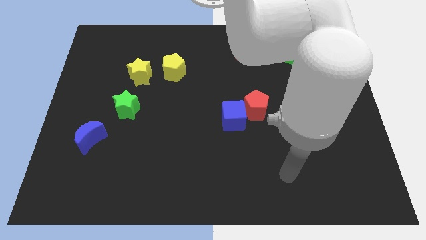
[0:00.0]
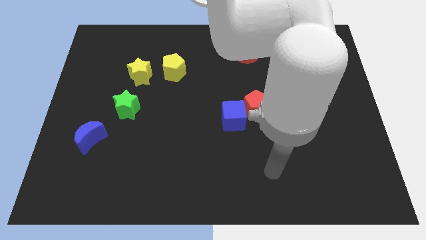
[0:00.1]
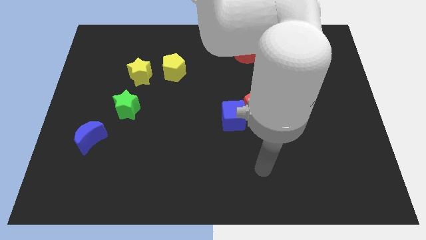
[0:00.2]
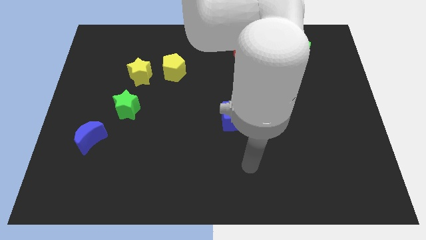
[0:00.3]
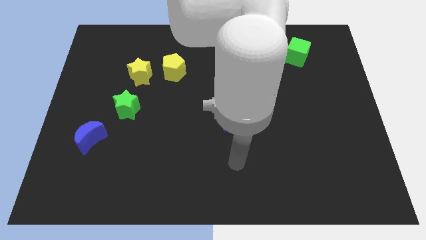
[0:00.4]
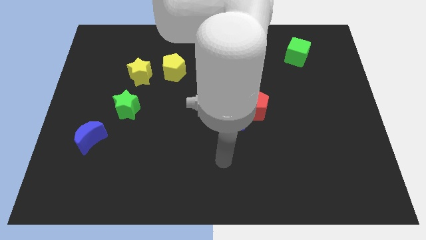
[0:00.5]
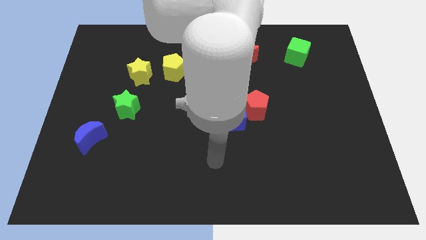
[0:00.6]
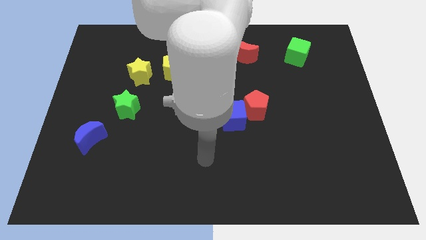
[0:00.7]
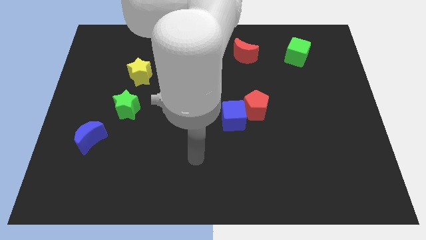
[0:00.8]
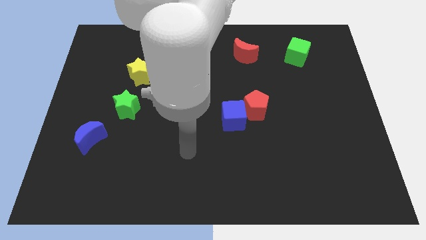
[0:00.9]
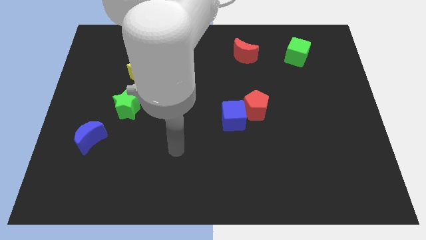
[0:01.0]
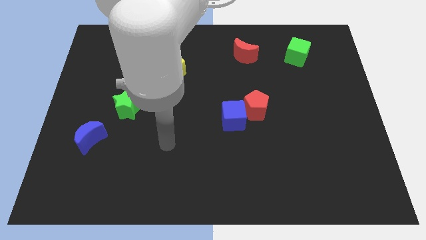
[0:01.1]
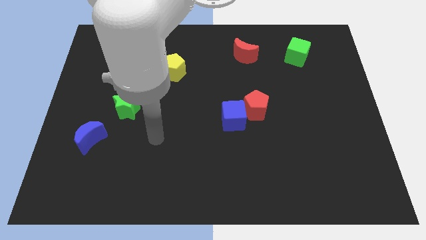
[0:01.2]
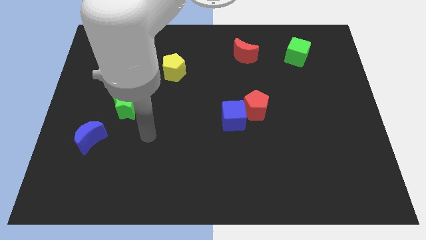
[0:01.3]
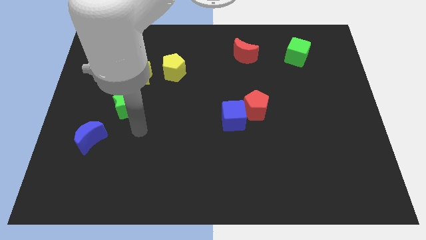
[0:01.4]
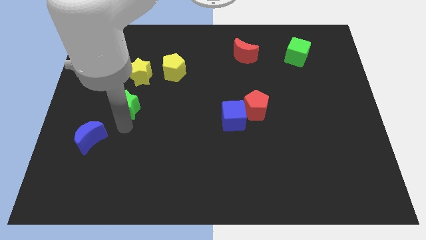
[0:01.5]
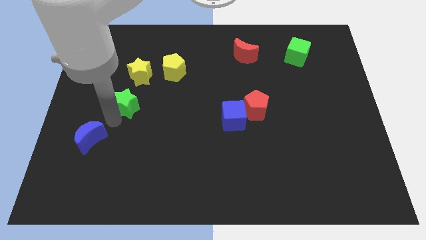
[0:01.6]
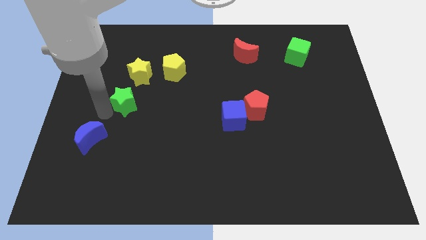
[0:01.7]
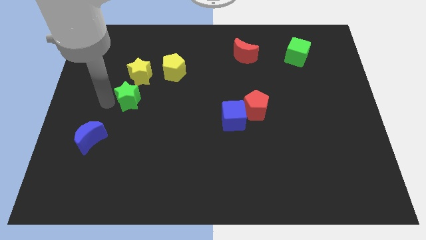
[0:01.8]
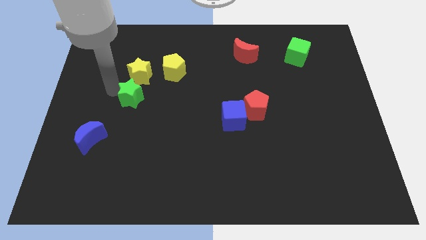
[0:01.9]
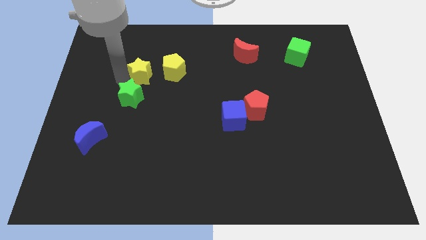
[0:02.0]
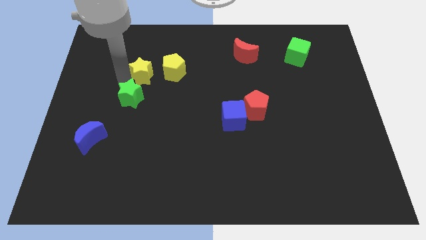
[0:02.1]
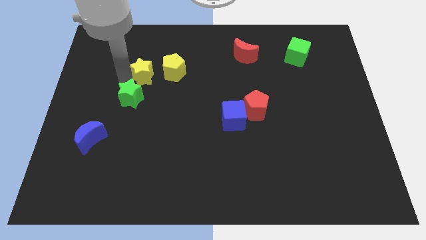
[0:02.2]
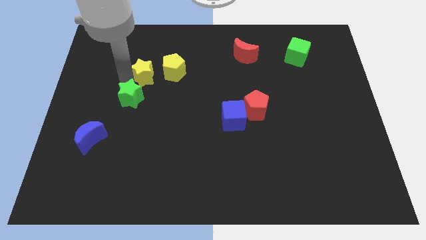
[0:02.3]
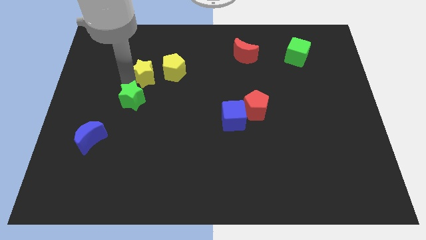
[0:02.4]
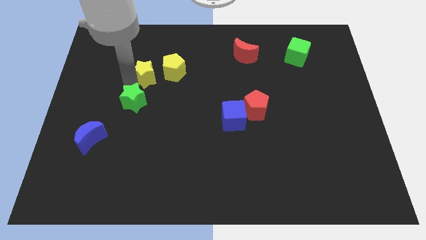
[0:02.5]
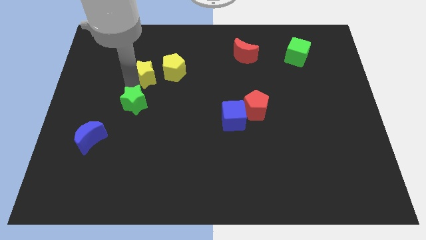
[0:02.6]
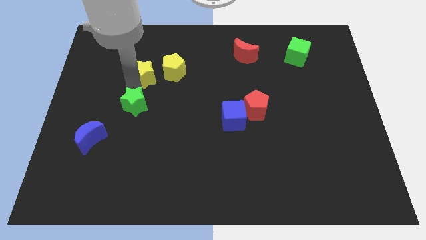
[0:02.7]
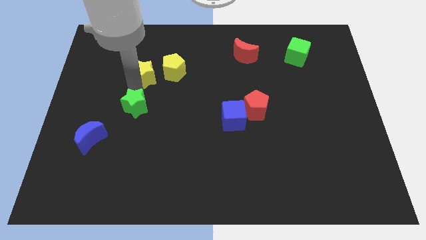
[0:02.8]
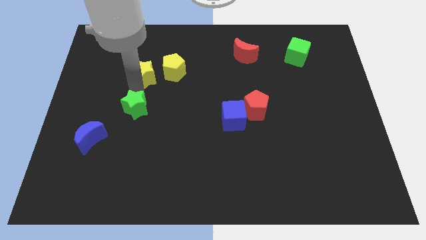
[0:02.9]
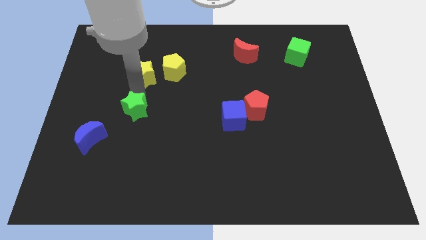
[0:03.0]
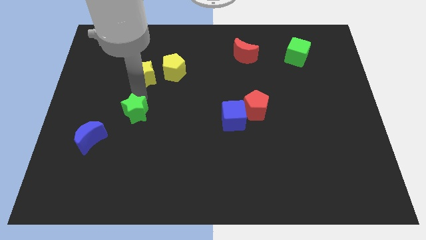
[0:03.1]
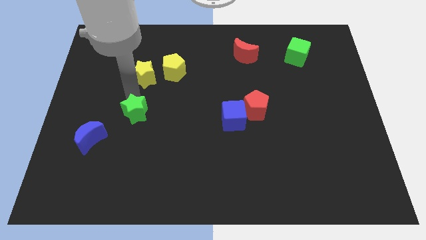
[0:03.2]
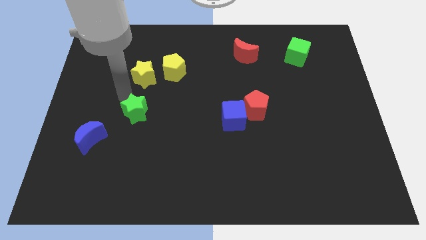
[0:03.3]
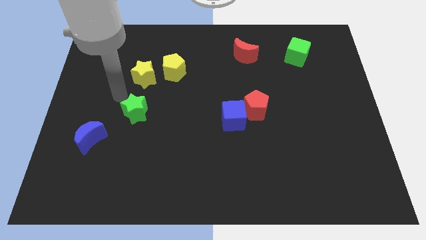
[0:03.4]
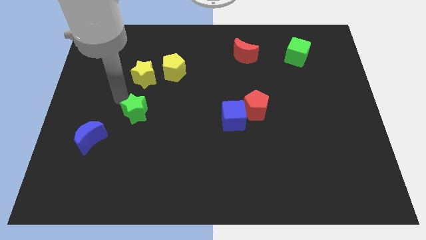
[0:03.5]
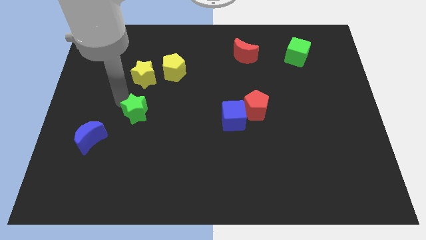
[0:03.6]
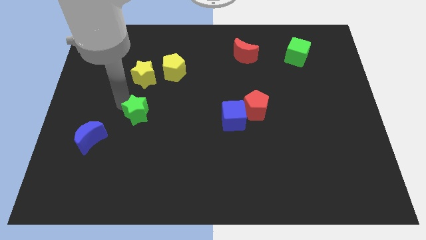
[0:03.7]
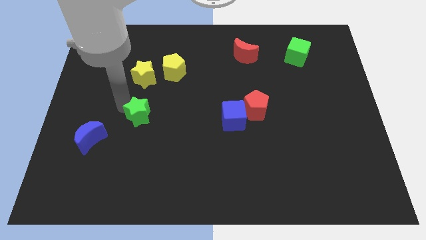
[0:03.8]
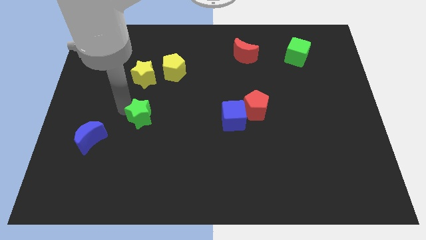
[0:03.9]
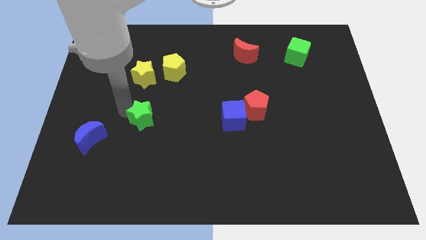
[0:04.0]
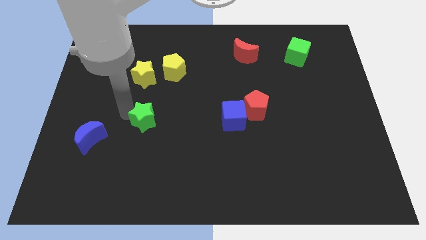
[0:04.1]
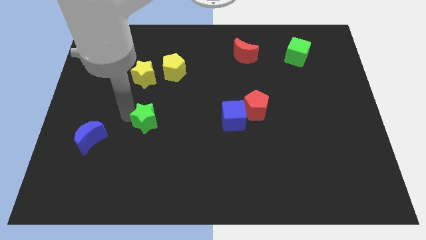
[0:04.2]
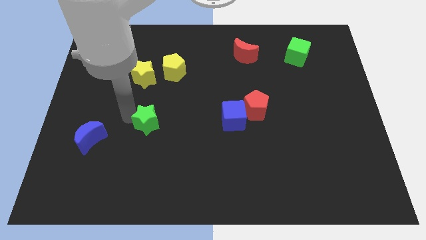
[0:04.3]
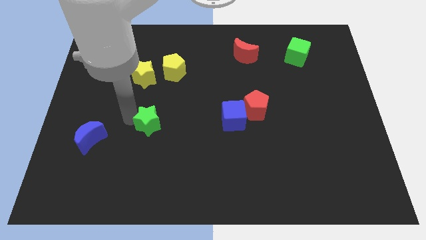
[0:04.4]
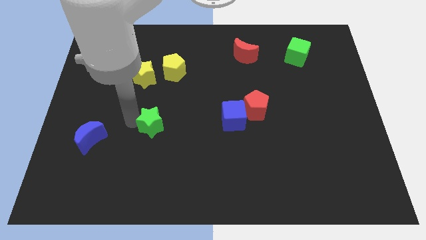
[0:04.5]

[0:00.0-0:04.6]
slightly push the green star down and to the right diagonally

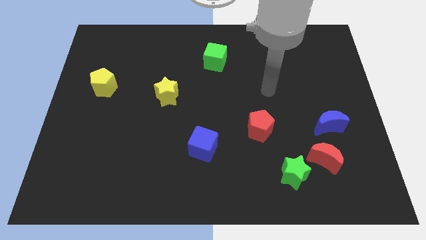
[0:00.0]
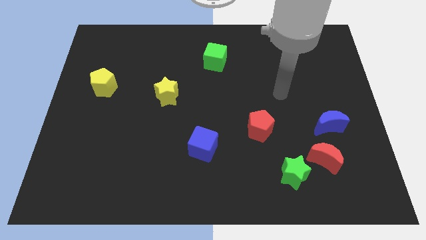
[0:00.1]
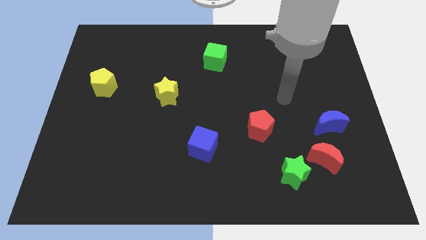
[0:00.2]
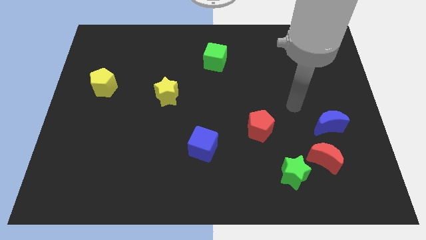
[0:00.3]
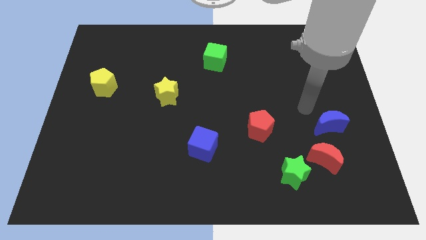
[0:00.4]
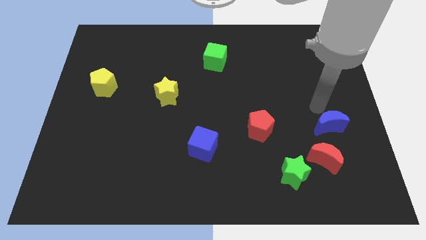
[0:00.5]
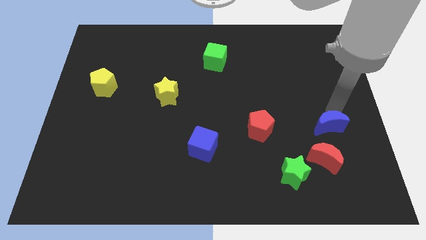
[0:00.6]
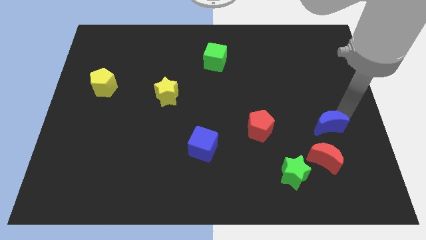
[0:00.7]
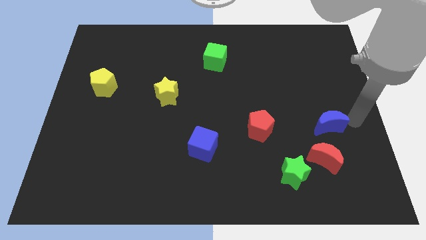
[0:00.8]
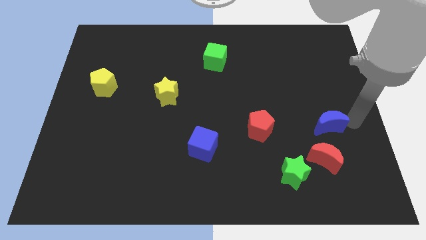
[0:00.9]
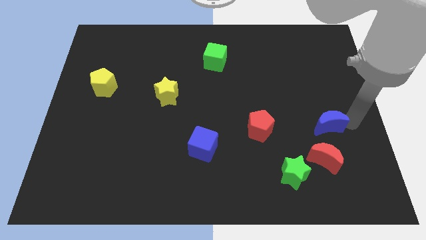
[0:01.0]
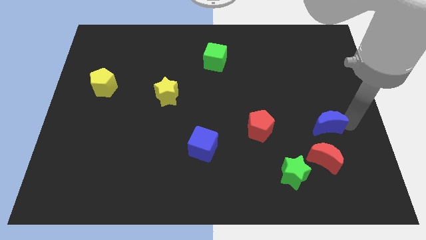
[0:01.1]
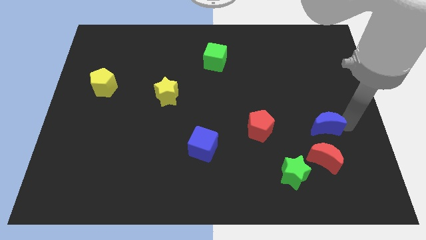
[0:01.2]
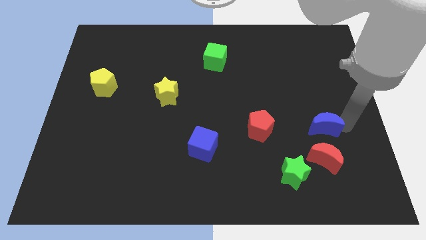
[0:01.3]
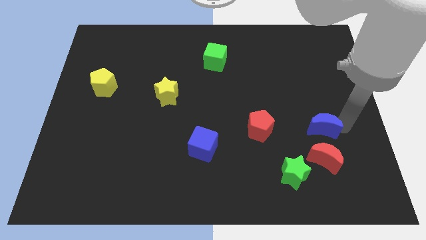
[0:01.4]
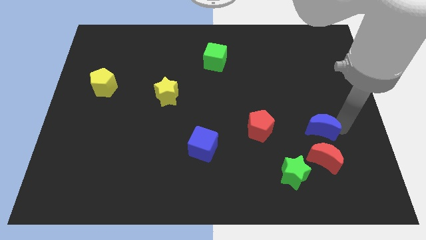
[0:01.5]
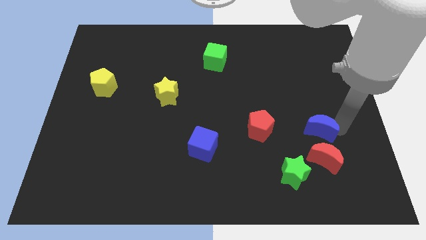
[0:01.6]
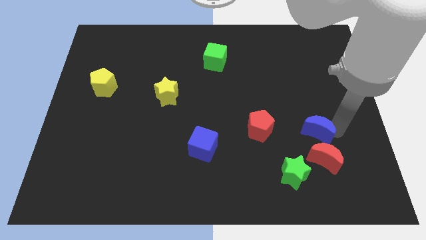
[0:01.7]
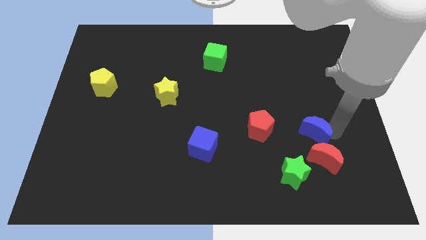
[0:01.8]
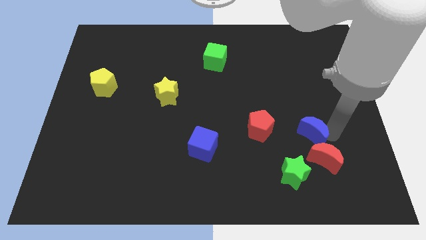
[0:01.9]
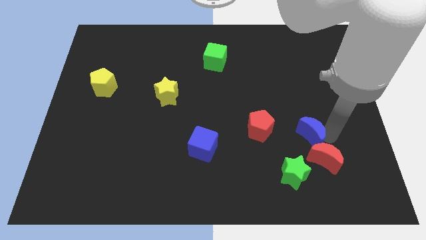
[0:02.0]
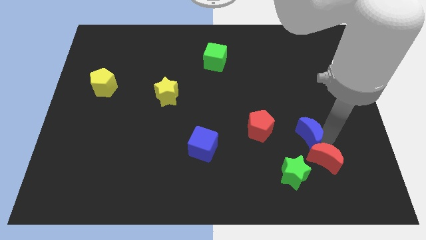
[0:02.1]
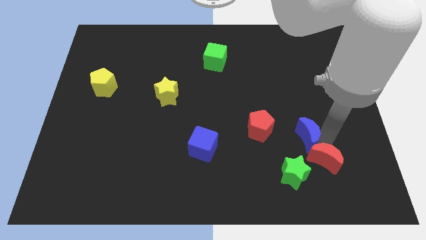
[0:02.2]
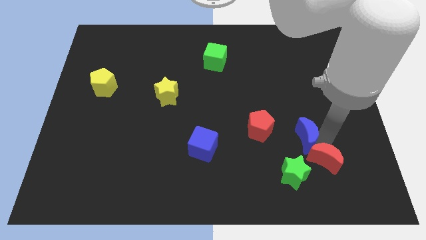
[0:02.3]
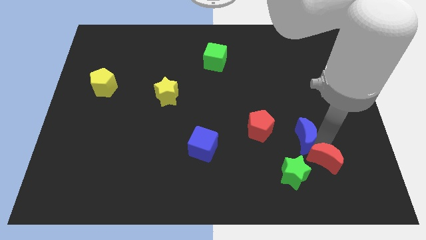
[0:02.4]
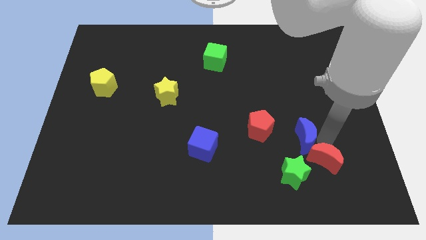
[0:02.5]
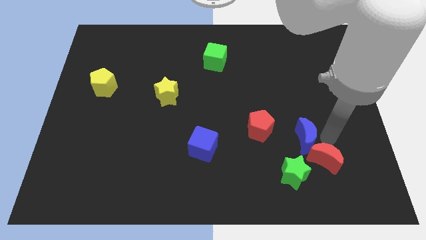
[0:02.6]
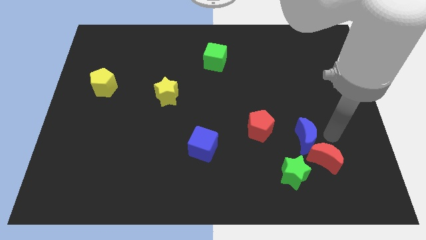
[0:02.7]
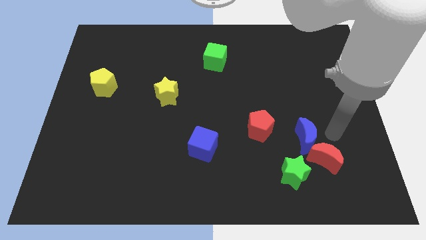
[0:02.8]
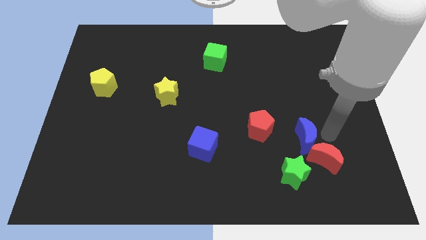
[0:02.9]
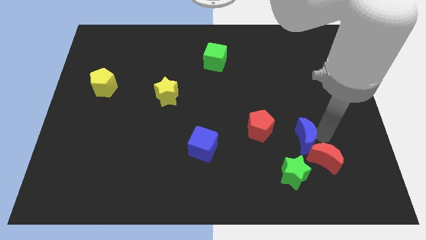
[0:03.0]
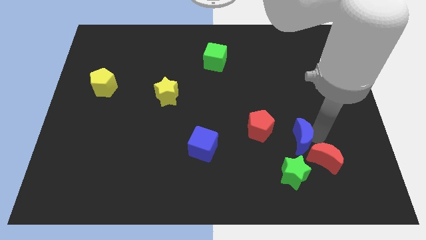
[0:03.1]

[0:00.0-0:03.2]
move the blue moon downwards and to the left diagonally somewhat

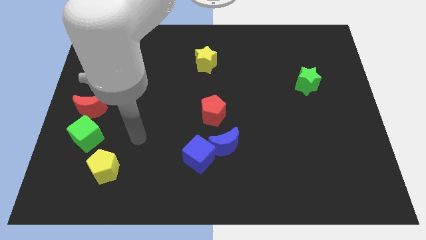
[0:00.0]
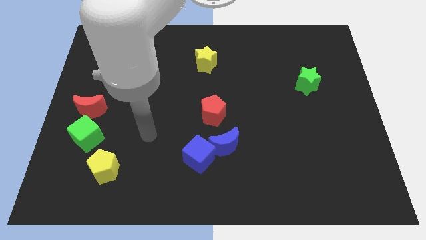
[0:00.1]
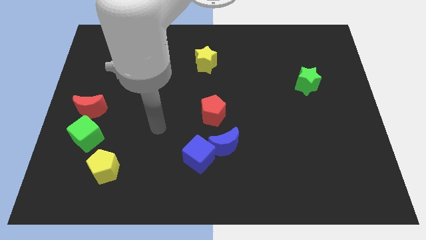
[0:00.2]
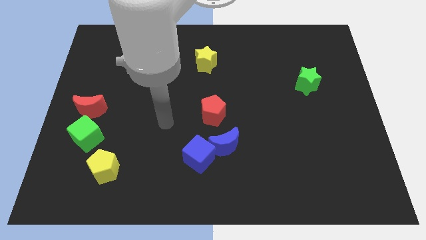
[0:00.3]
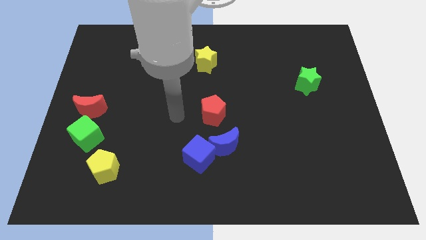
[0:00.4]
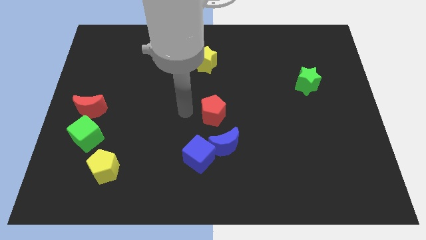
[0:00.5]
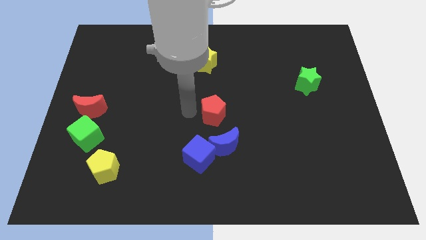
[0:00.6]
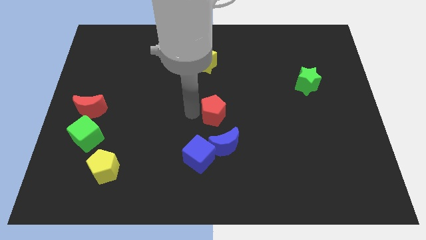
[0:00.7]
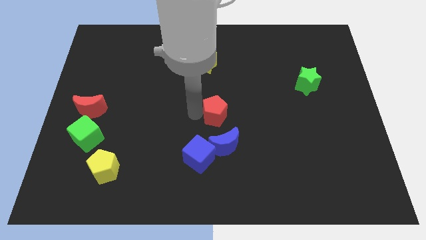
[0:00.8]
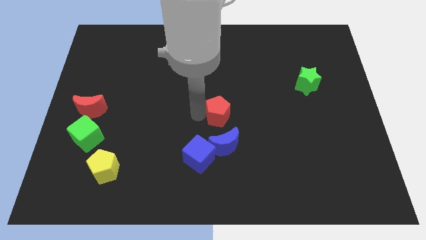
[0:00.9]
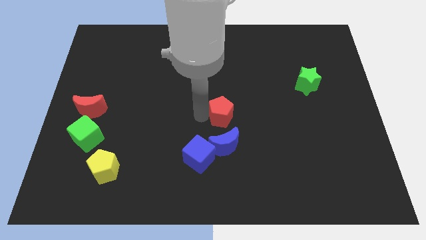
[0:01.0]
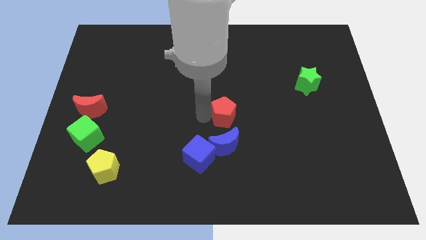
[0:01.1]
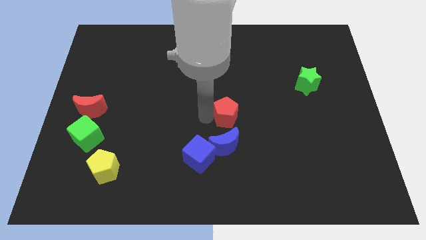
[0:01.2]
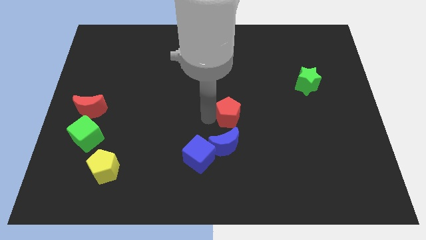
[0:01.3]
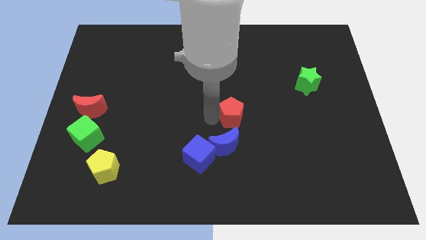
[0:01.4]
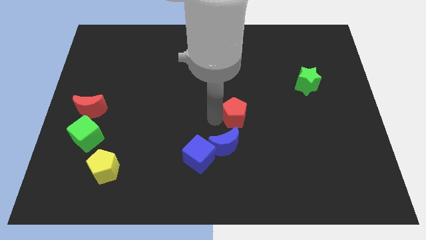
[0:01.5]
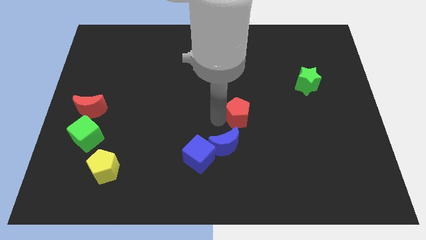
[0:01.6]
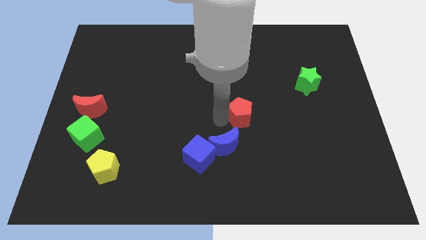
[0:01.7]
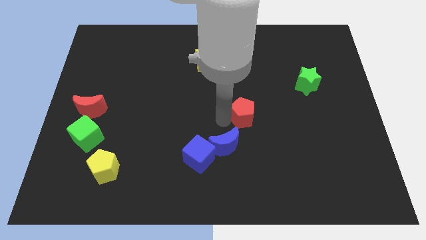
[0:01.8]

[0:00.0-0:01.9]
move the red pentagon somewhat right
